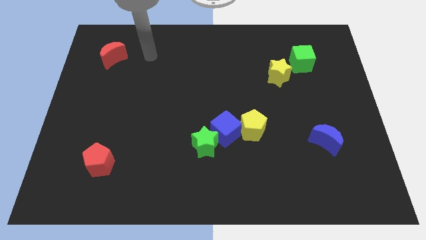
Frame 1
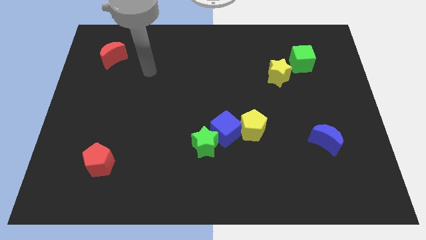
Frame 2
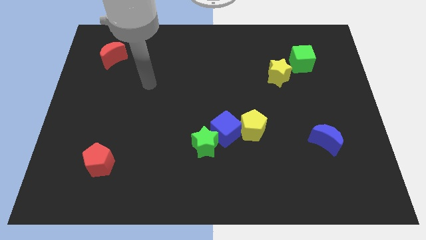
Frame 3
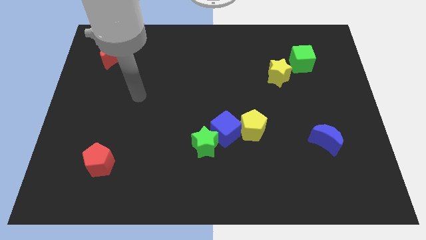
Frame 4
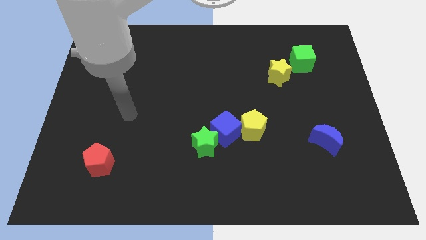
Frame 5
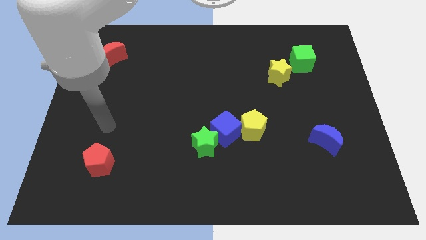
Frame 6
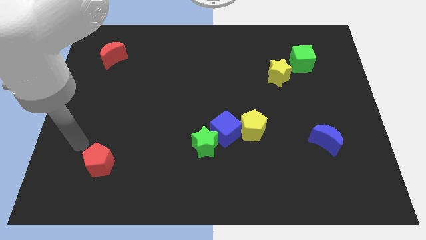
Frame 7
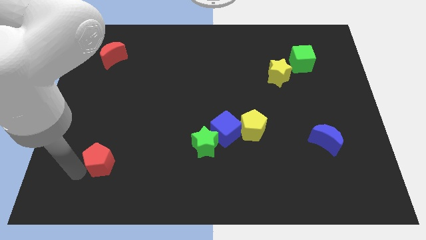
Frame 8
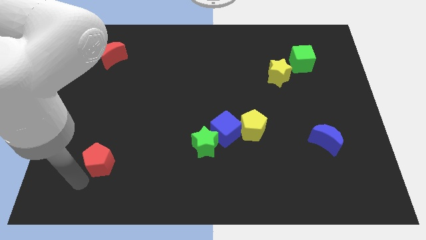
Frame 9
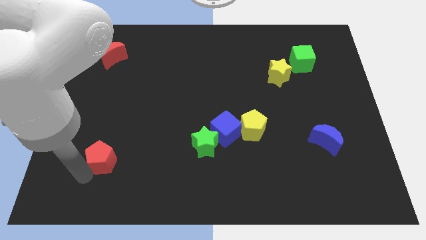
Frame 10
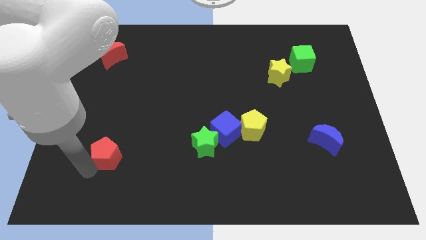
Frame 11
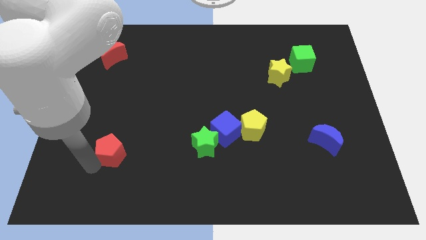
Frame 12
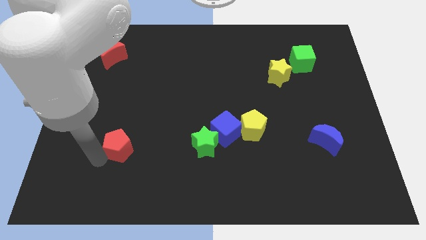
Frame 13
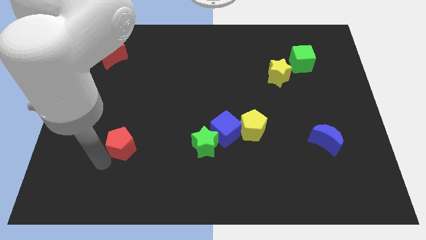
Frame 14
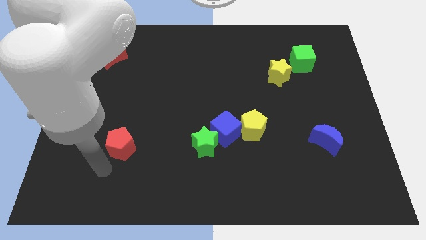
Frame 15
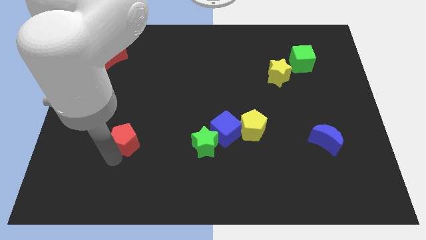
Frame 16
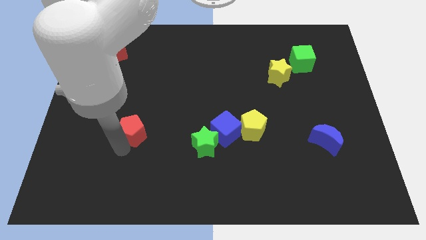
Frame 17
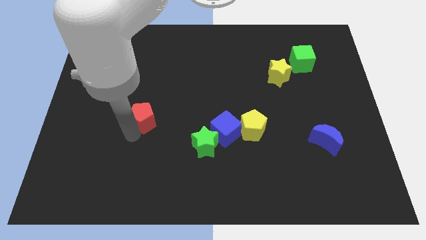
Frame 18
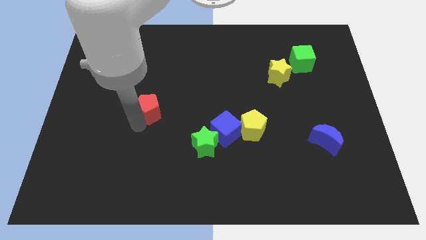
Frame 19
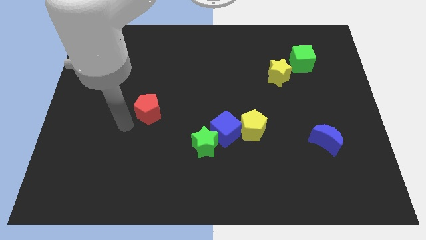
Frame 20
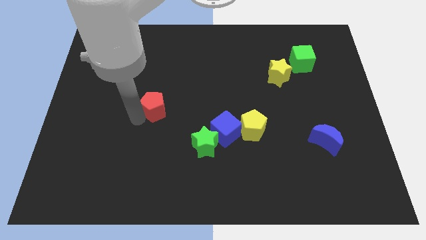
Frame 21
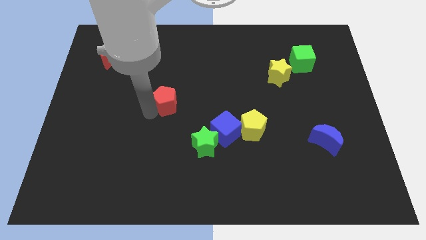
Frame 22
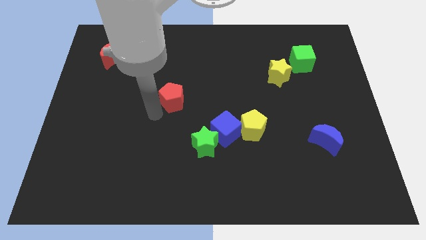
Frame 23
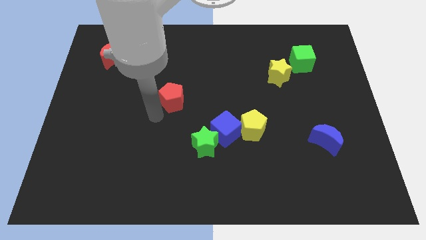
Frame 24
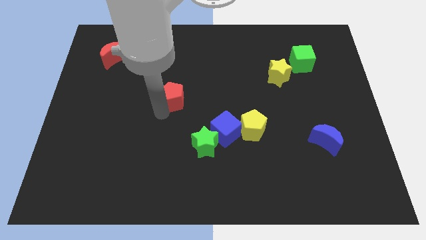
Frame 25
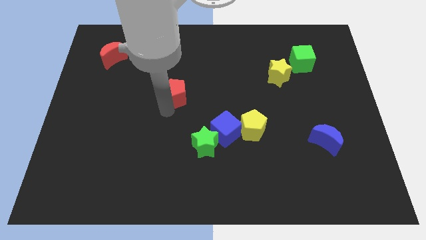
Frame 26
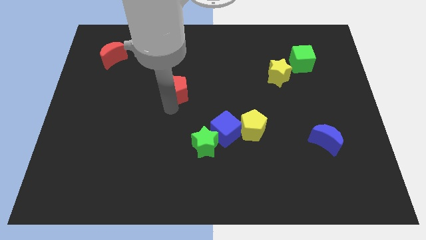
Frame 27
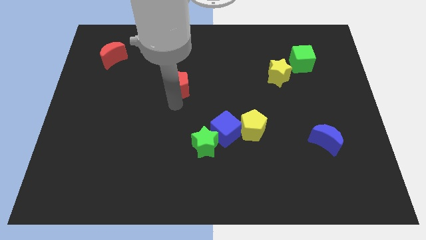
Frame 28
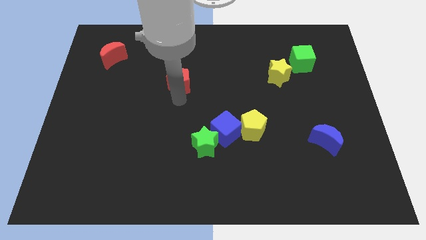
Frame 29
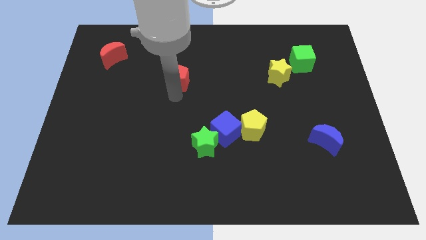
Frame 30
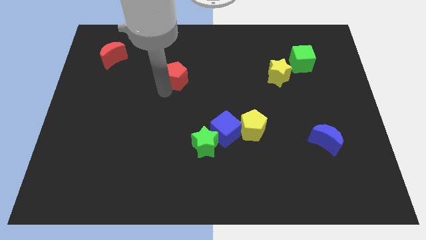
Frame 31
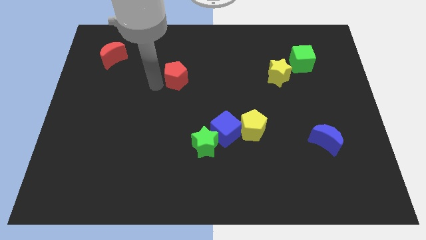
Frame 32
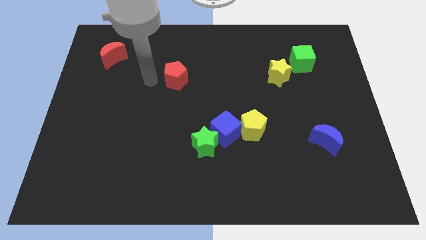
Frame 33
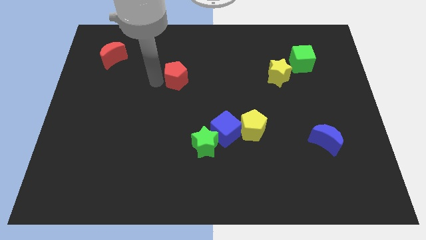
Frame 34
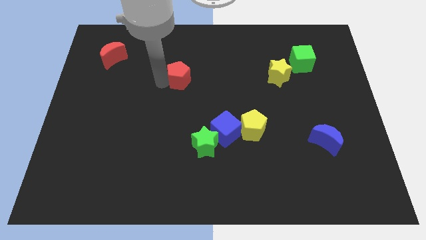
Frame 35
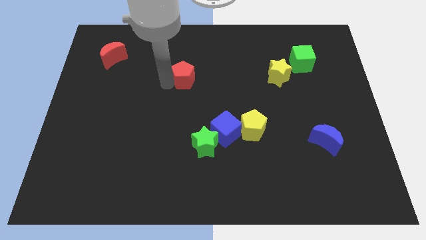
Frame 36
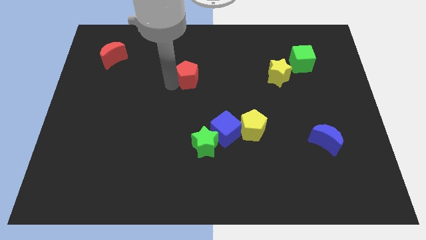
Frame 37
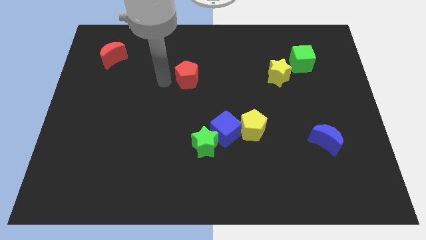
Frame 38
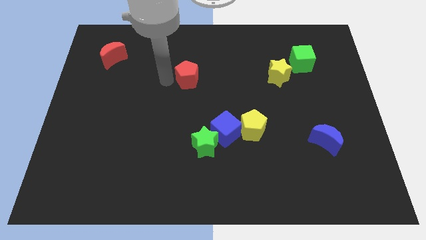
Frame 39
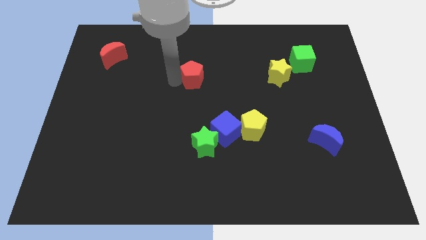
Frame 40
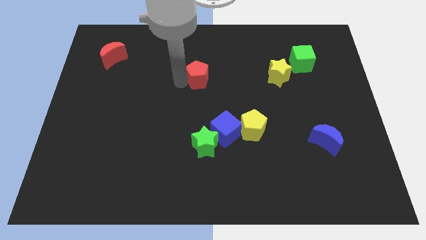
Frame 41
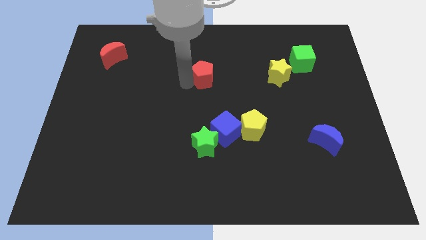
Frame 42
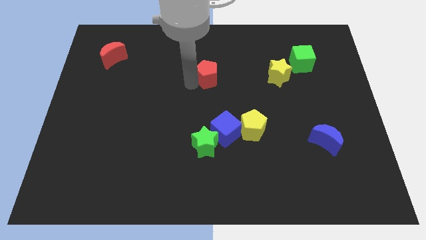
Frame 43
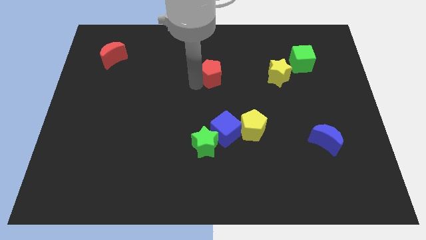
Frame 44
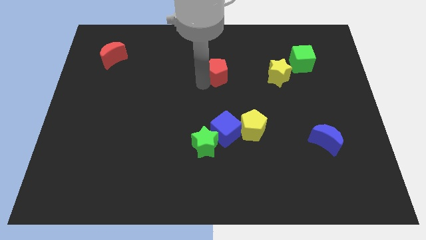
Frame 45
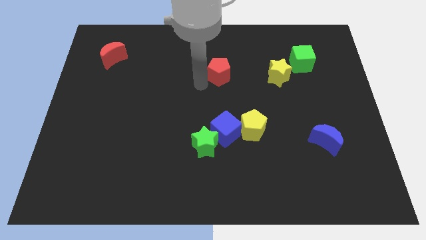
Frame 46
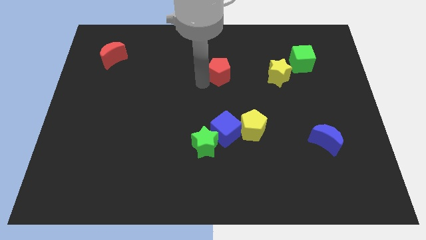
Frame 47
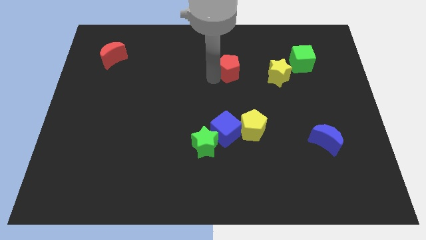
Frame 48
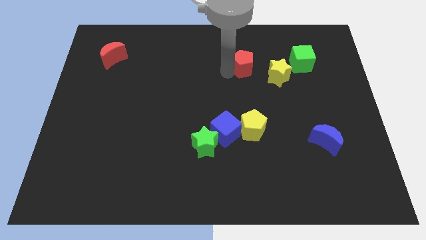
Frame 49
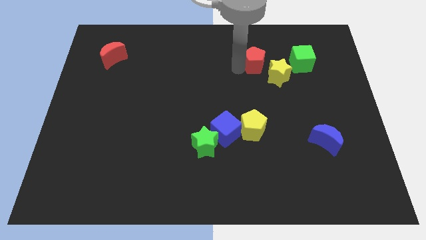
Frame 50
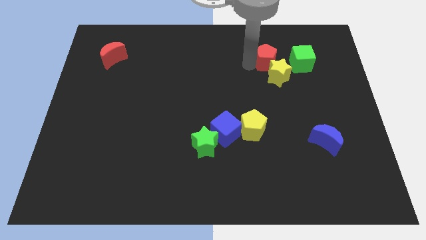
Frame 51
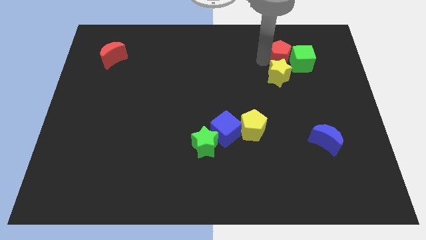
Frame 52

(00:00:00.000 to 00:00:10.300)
slide the red pentagon next to the green cube

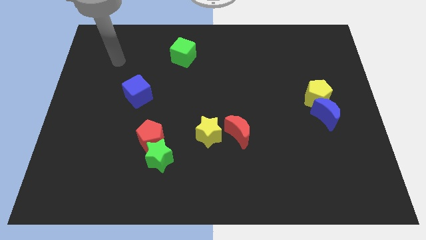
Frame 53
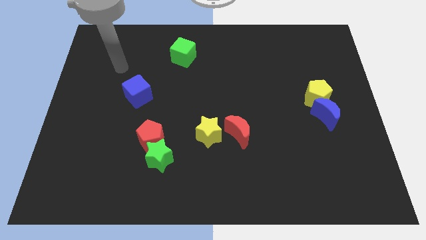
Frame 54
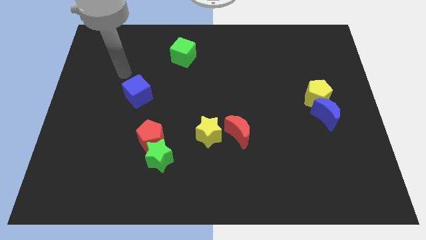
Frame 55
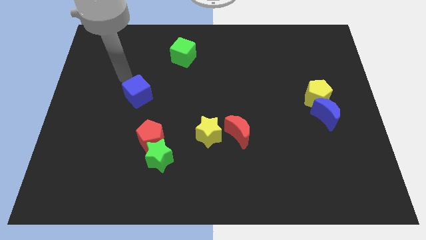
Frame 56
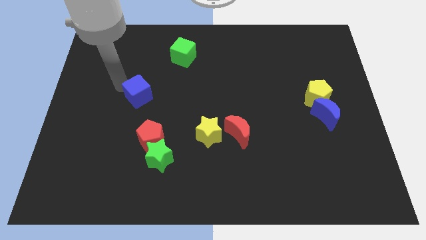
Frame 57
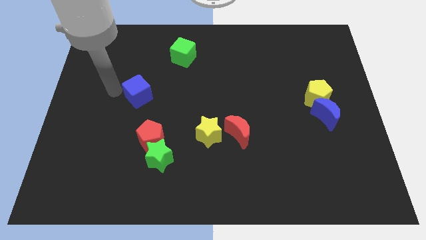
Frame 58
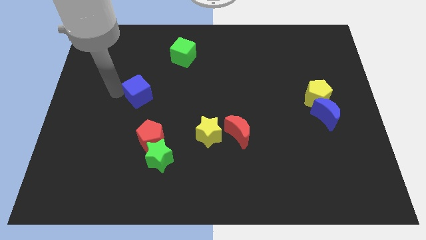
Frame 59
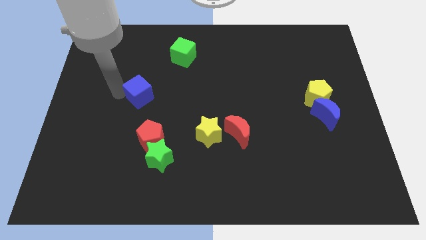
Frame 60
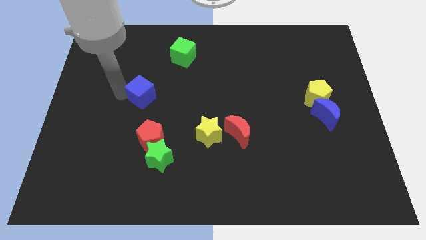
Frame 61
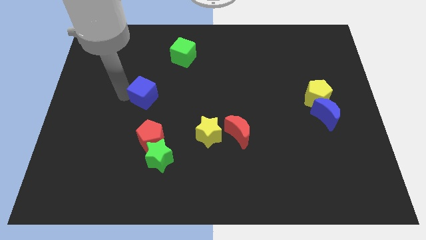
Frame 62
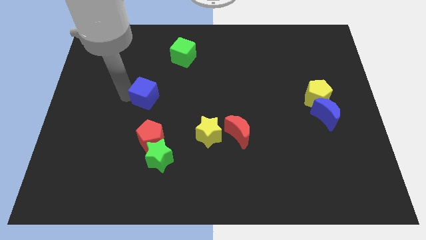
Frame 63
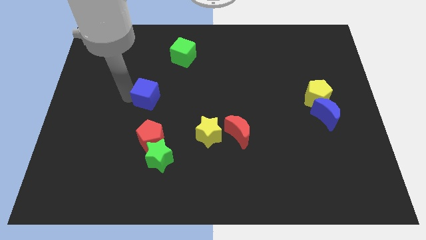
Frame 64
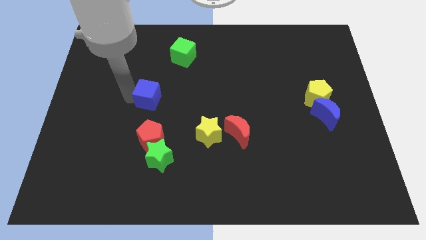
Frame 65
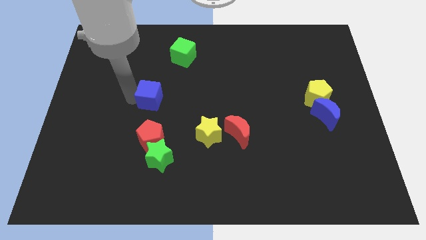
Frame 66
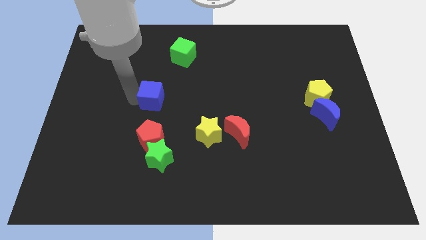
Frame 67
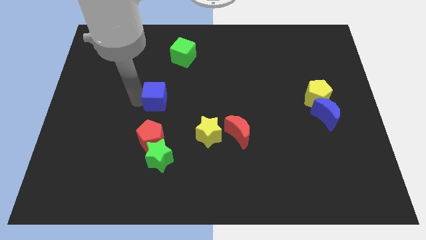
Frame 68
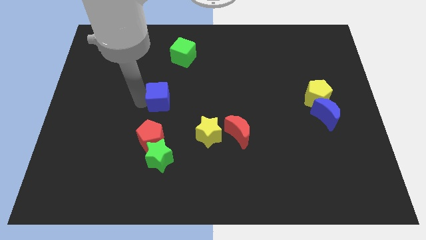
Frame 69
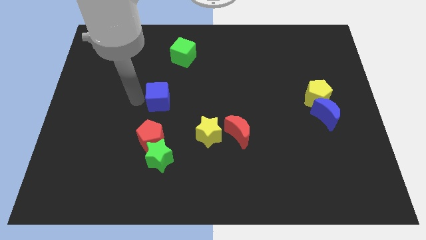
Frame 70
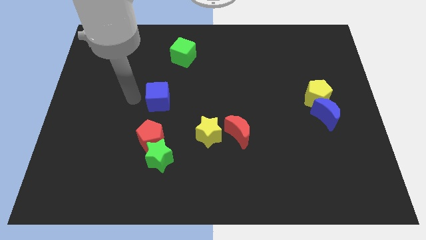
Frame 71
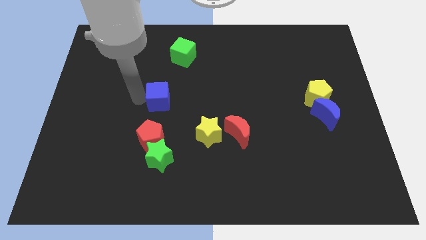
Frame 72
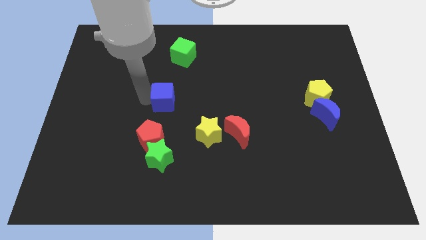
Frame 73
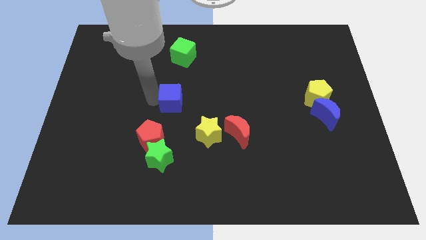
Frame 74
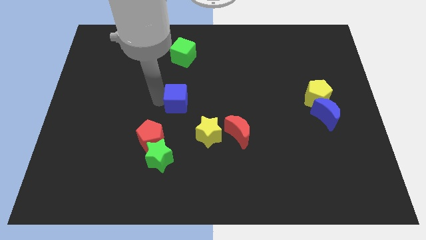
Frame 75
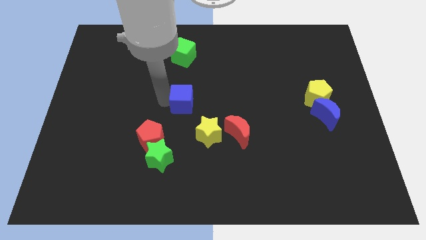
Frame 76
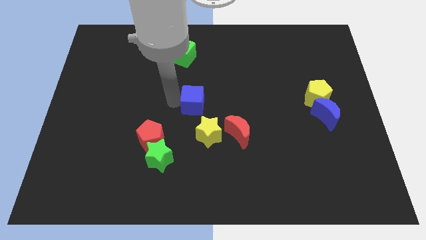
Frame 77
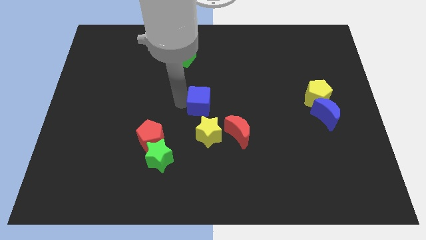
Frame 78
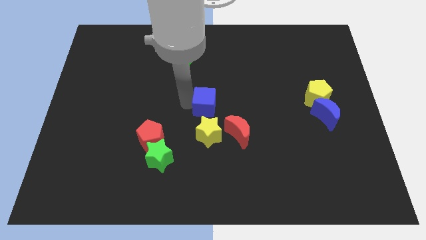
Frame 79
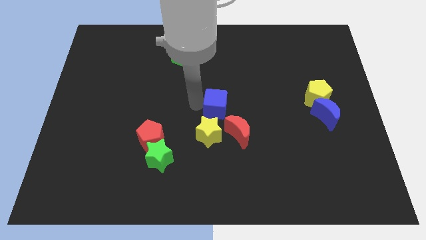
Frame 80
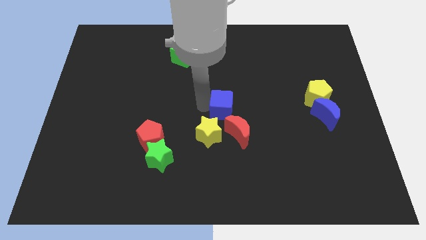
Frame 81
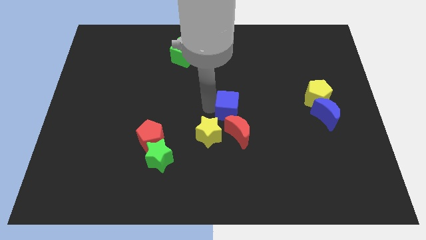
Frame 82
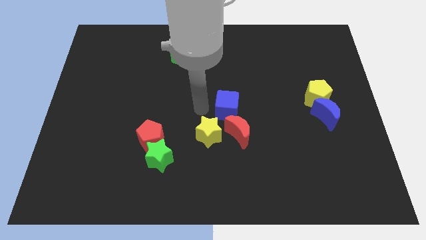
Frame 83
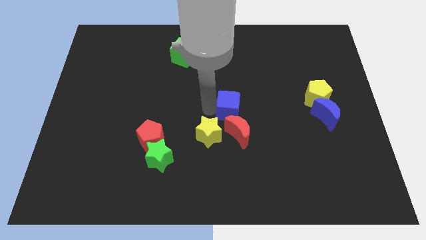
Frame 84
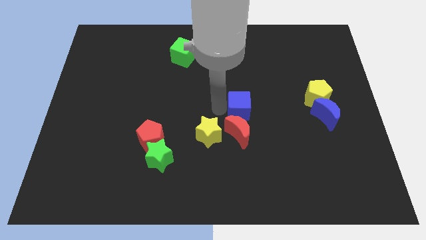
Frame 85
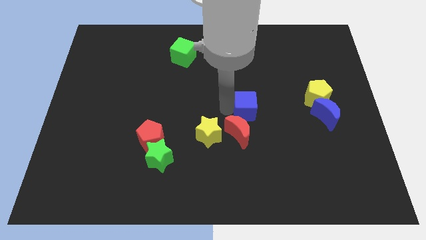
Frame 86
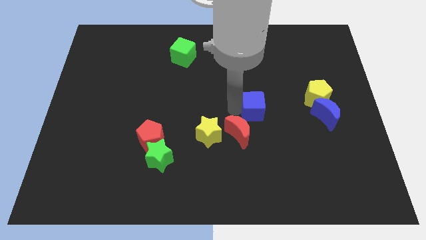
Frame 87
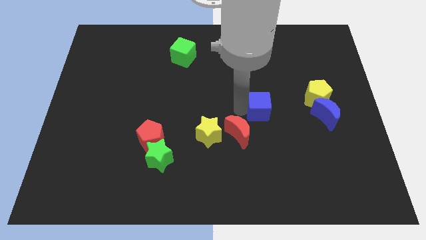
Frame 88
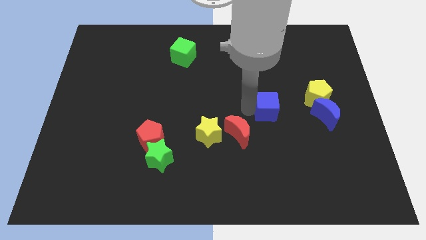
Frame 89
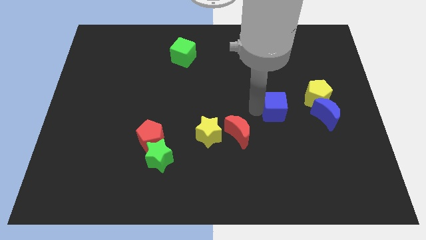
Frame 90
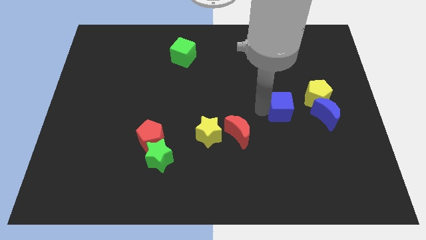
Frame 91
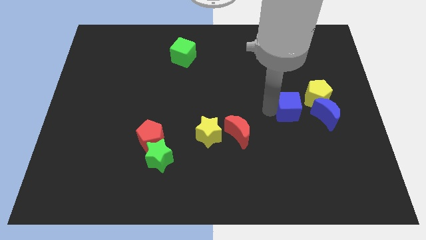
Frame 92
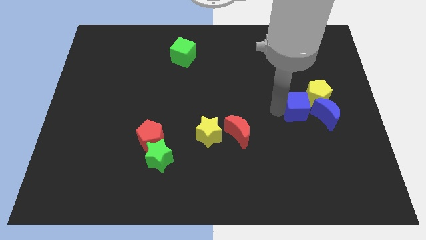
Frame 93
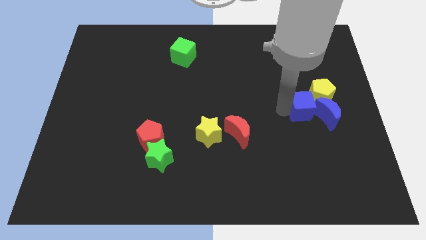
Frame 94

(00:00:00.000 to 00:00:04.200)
slide the blue cube next to the blue moon
